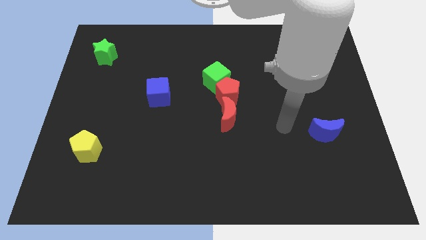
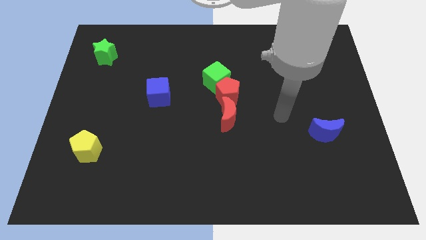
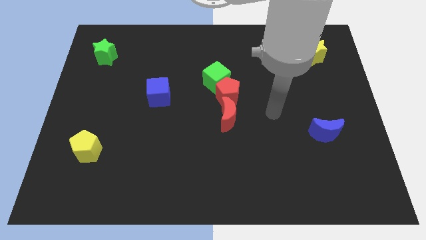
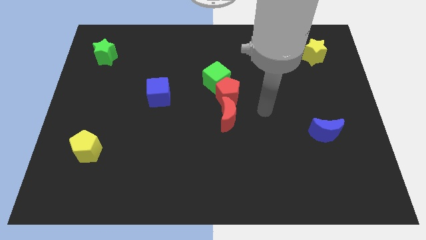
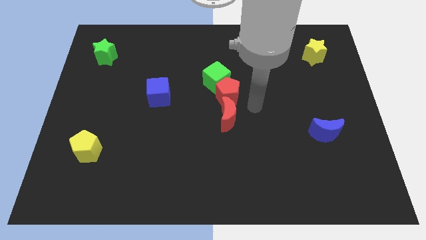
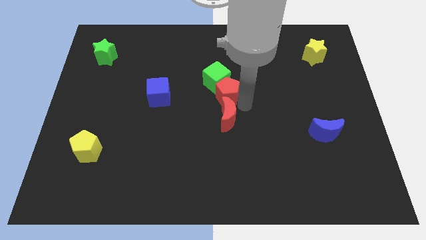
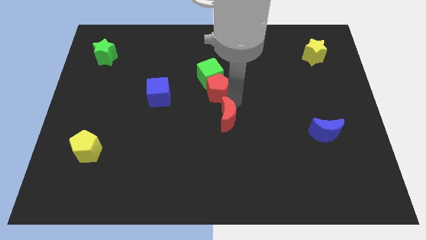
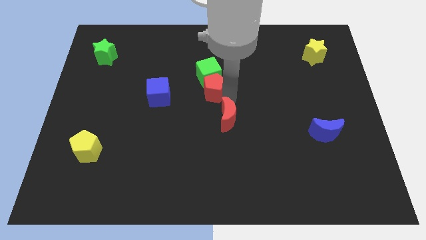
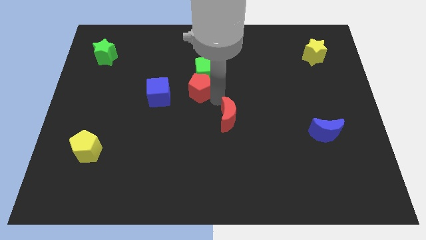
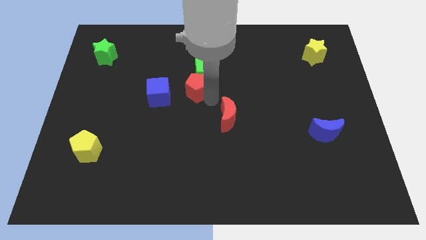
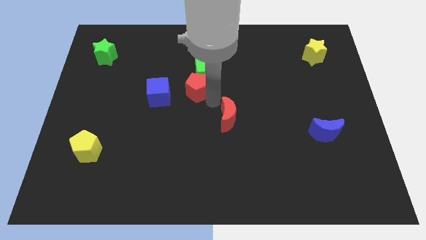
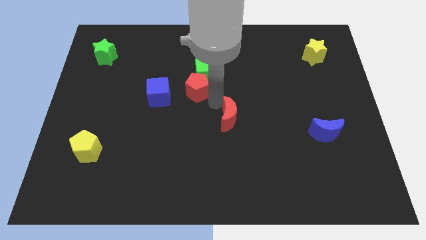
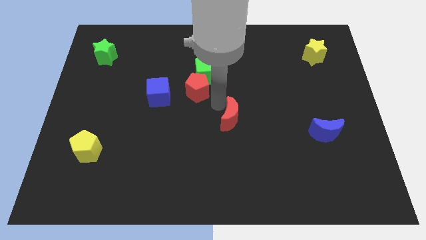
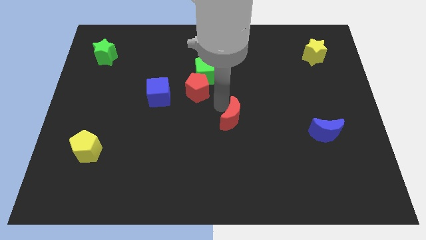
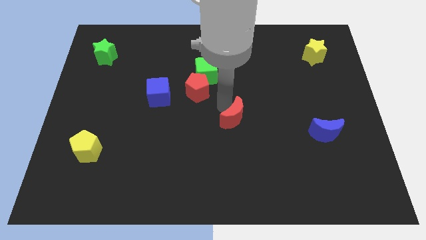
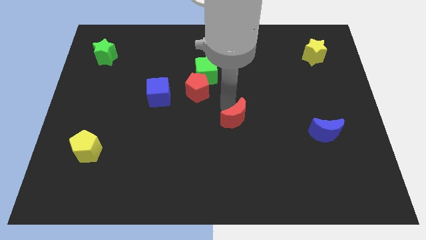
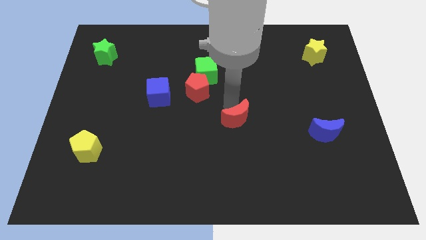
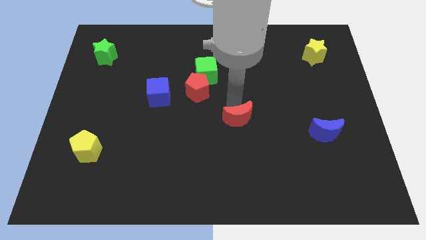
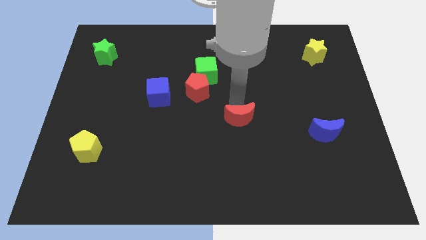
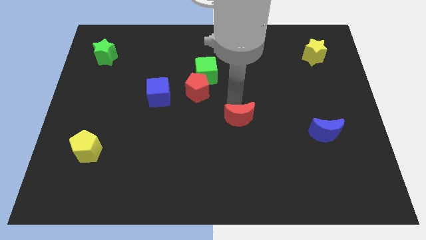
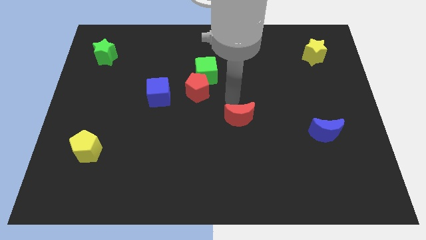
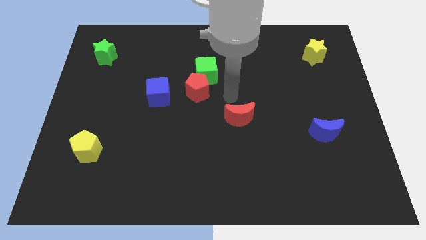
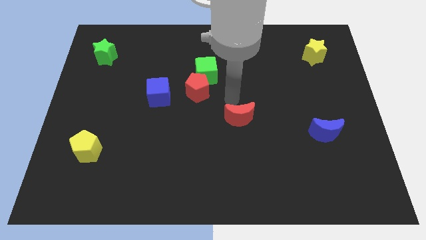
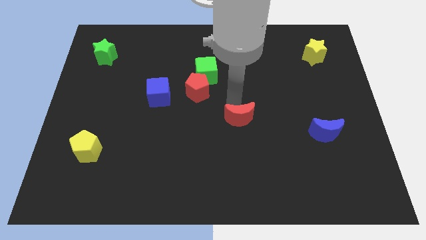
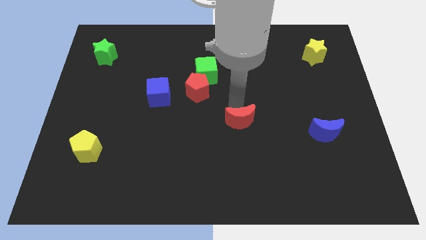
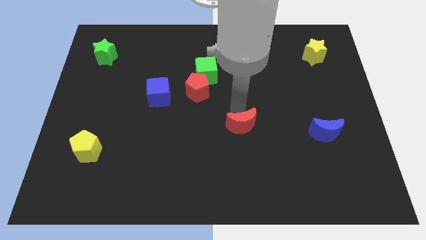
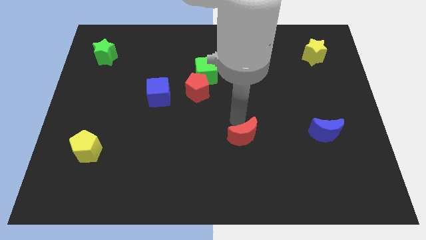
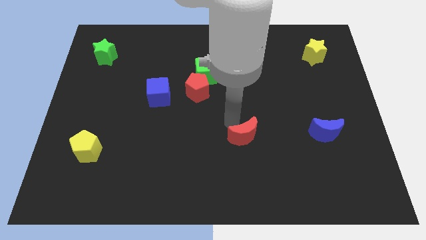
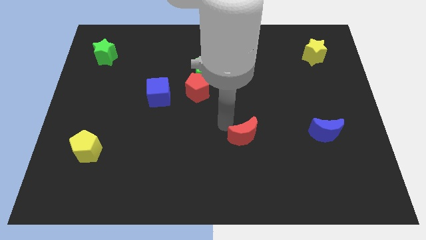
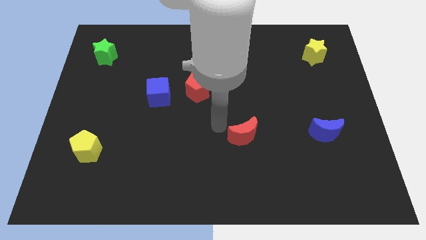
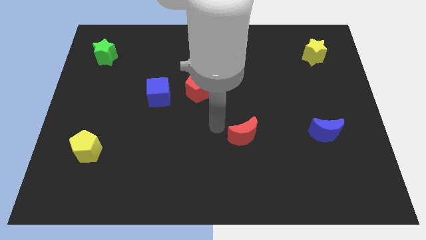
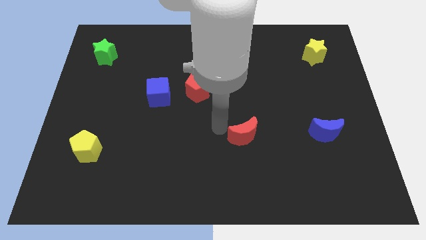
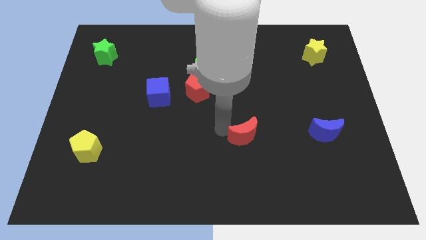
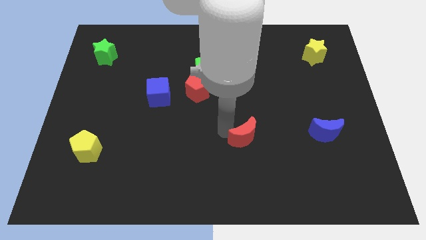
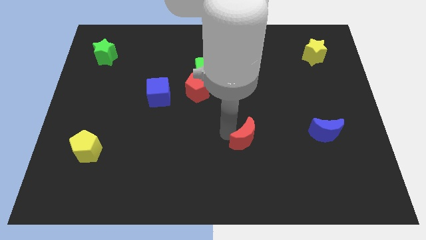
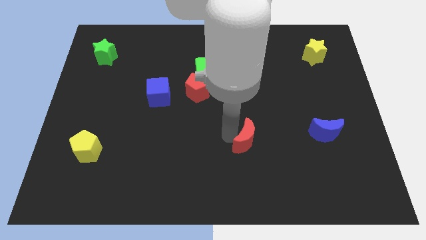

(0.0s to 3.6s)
move the red moon diagonally downwards and to the right somewhat

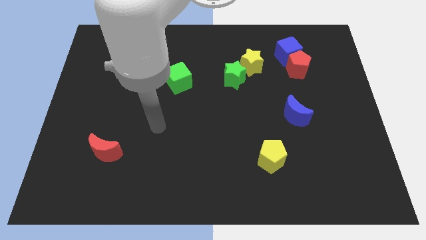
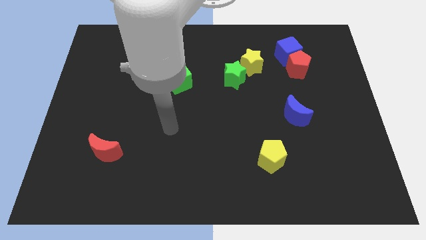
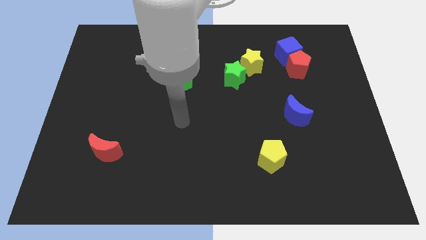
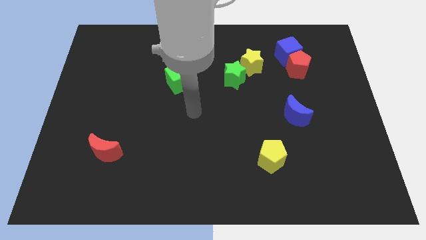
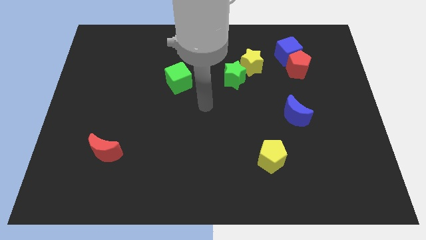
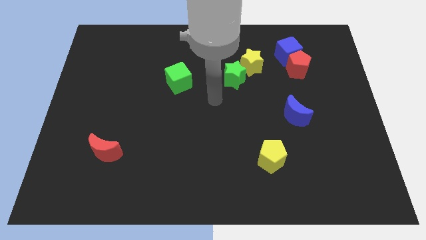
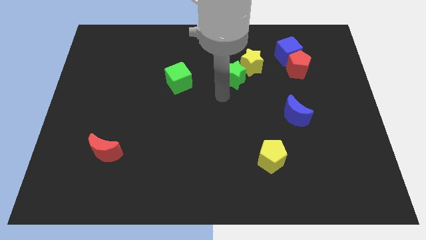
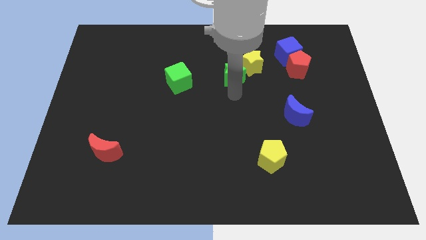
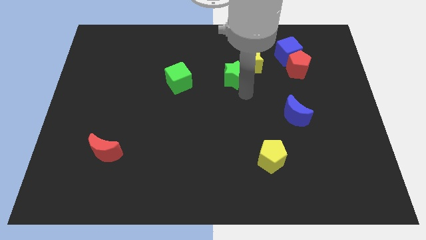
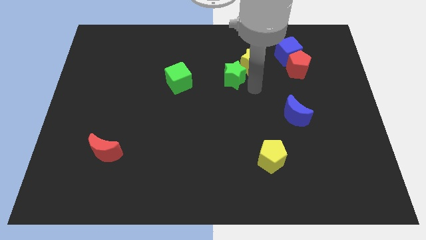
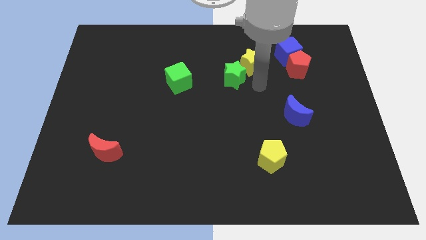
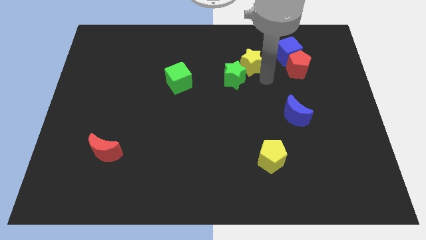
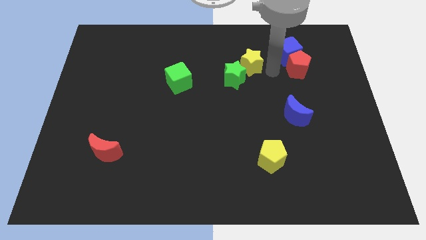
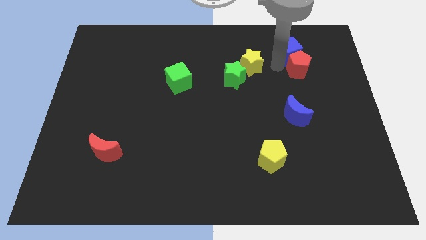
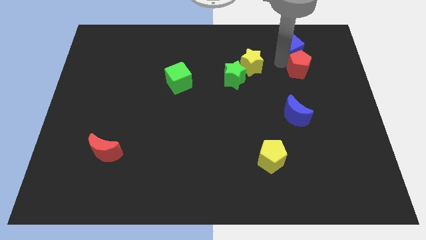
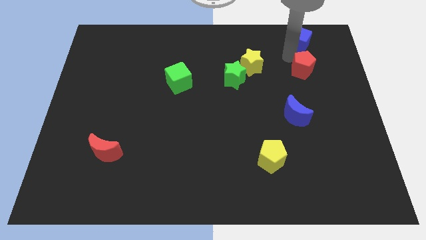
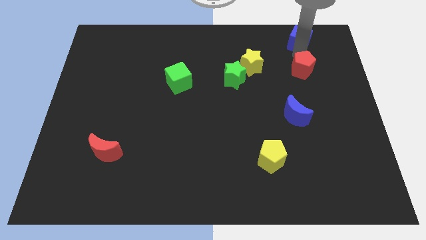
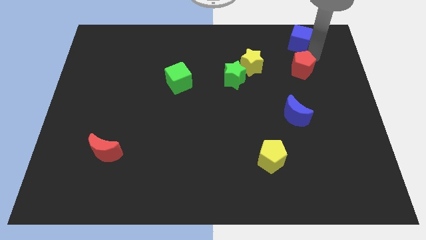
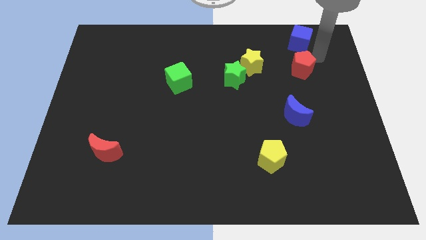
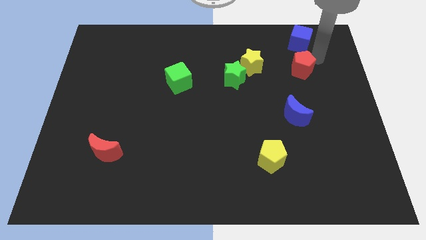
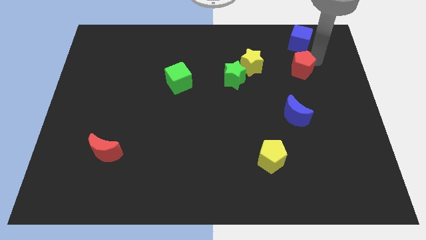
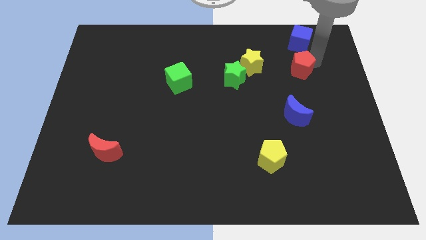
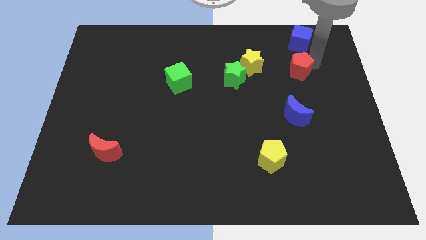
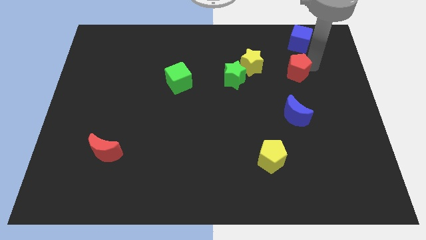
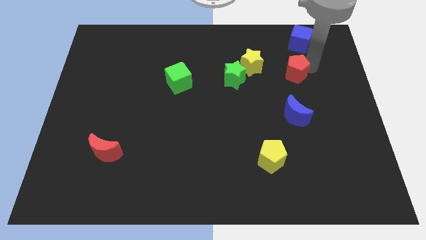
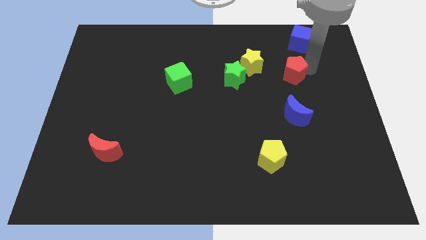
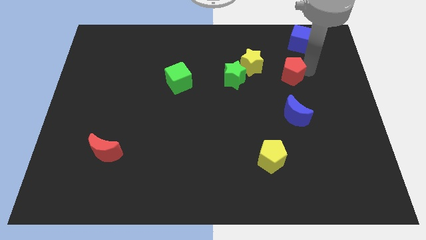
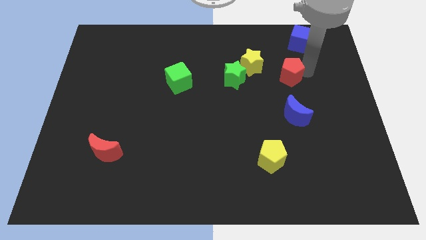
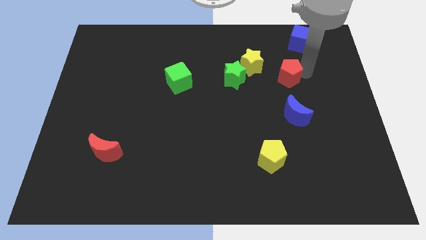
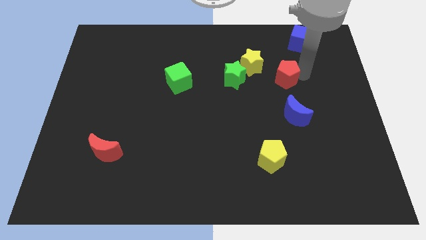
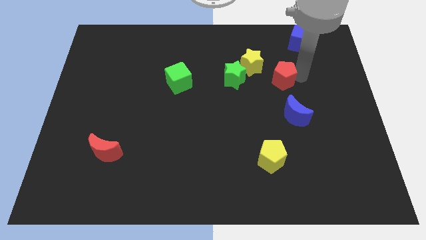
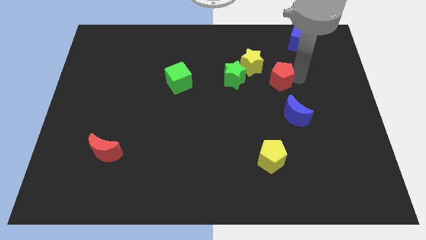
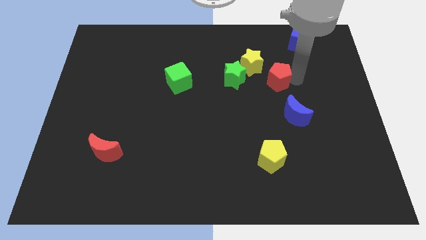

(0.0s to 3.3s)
slightly move the red pentagon downwards and then to the left

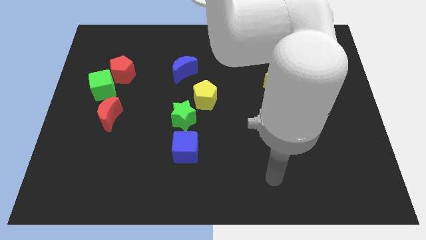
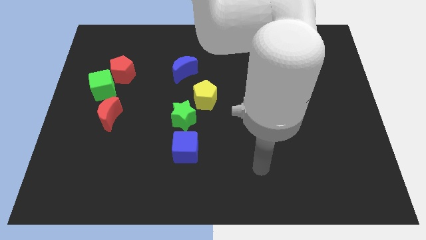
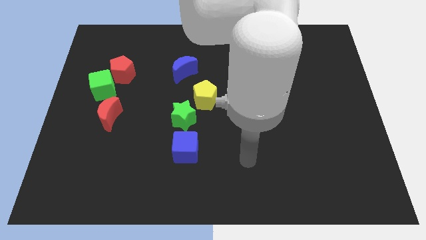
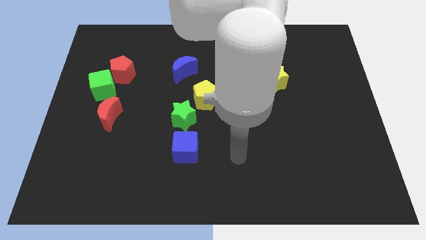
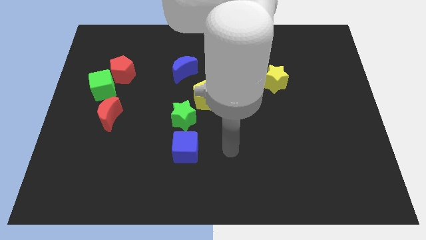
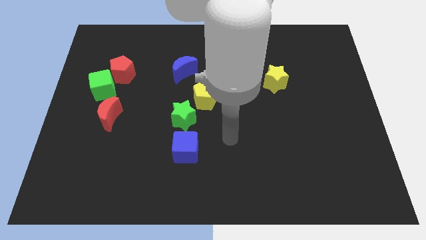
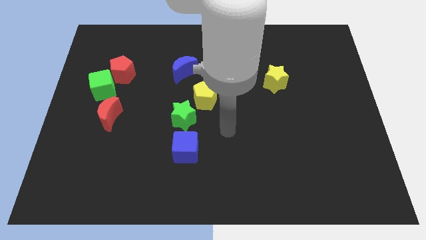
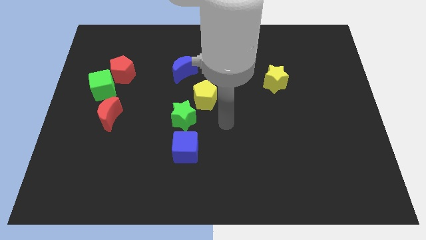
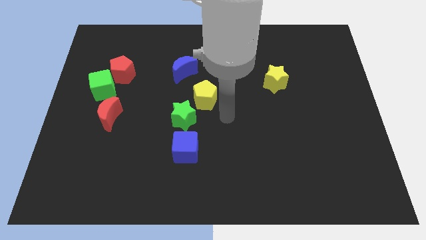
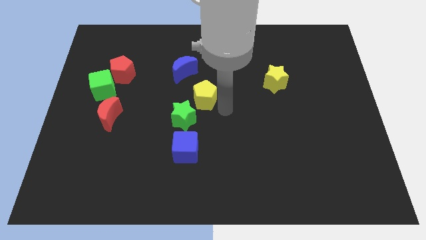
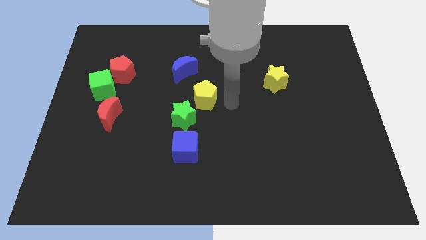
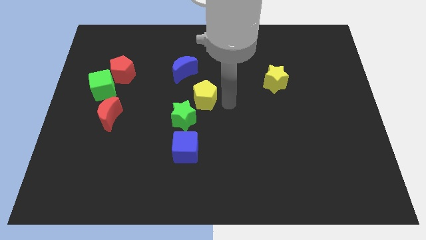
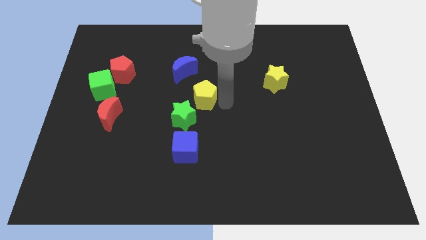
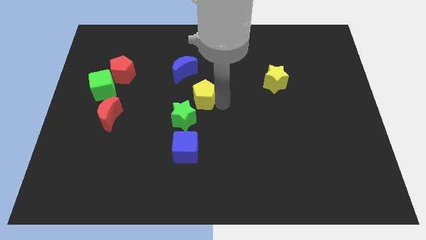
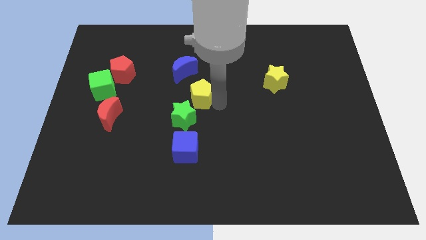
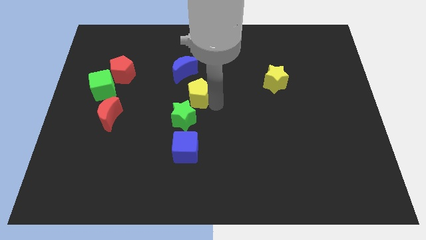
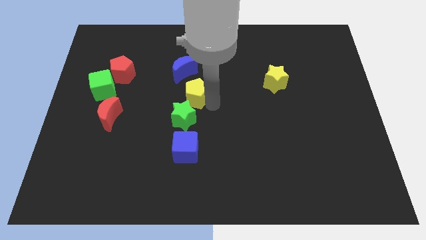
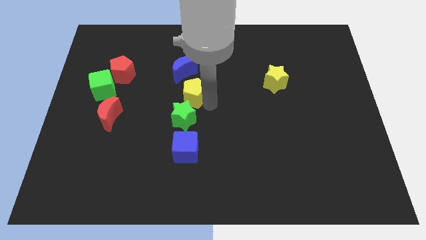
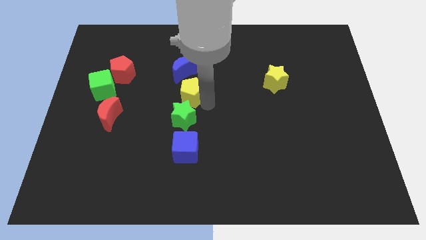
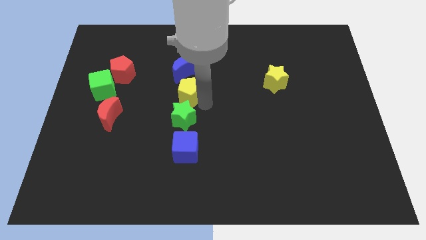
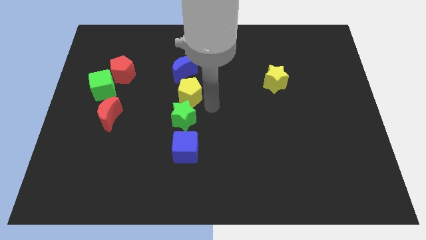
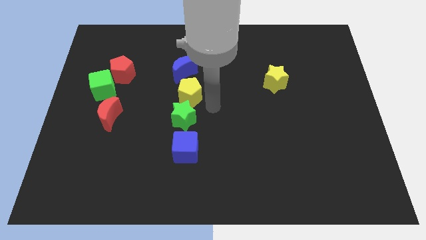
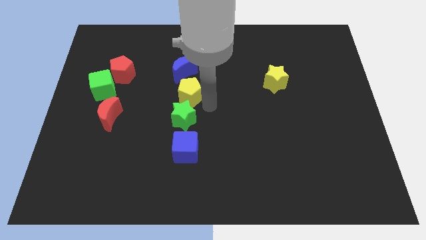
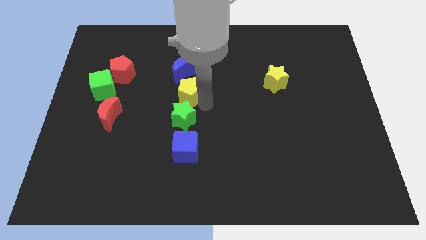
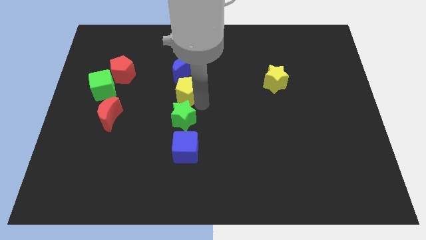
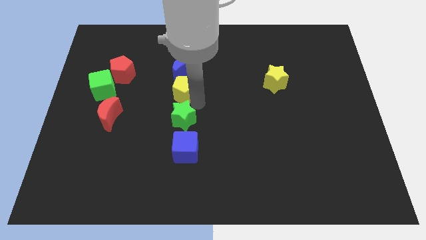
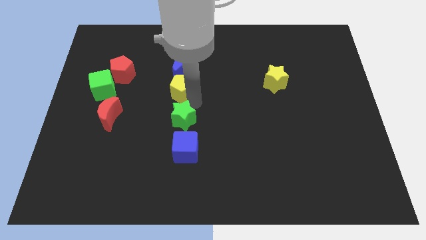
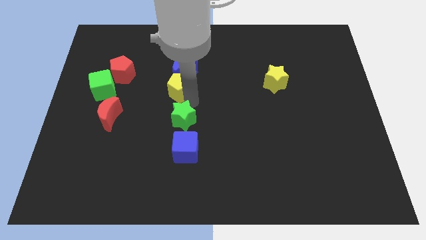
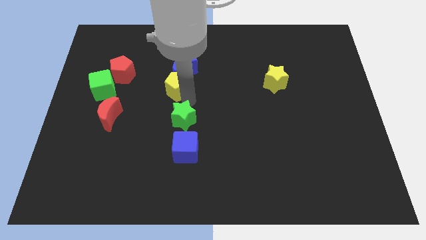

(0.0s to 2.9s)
slide the yellow pentagon up and then left a little bit
